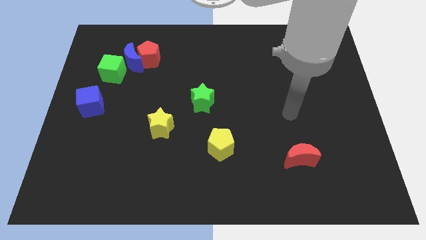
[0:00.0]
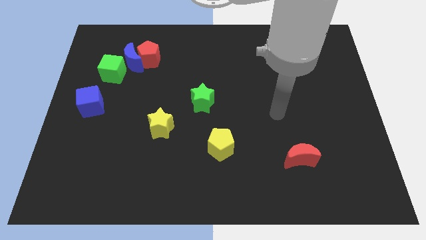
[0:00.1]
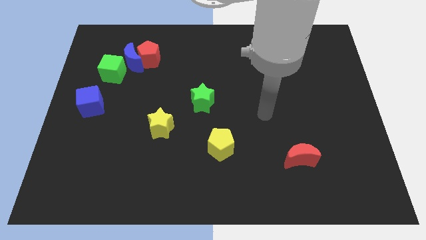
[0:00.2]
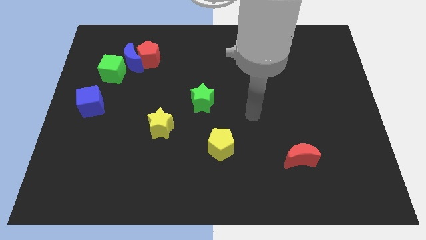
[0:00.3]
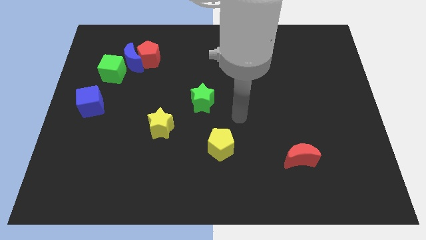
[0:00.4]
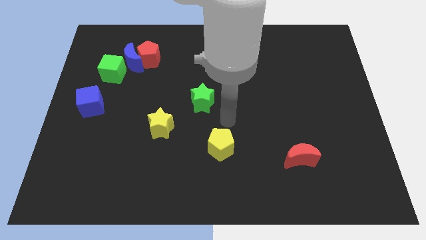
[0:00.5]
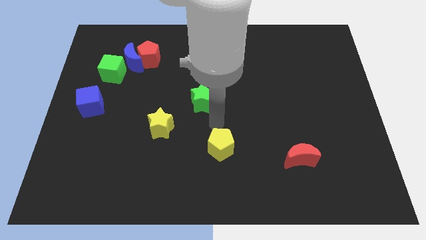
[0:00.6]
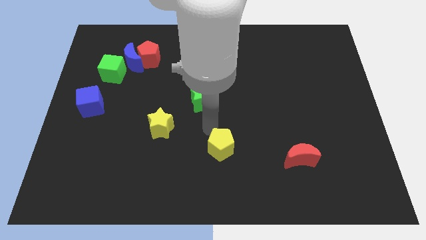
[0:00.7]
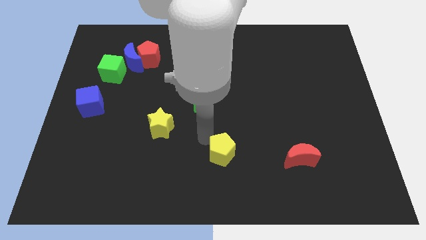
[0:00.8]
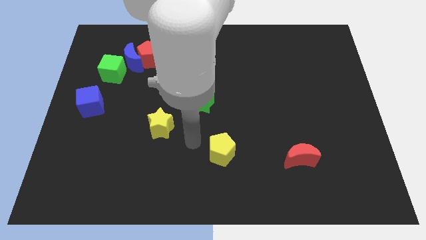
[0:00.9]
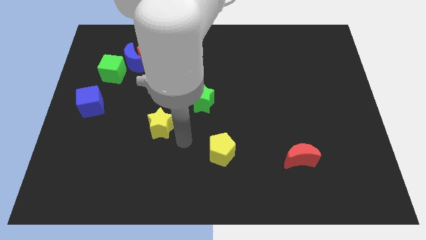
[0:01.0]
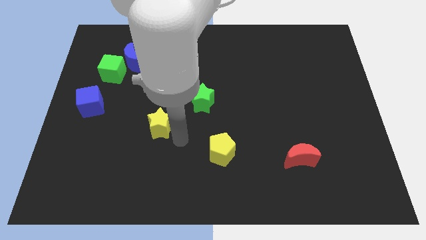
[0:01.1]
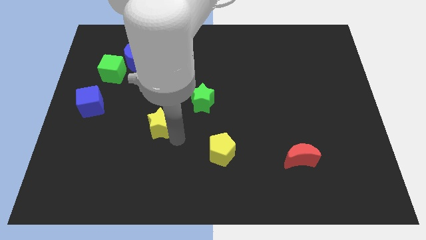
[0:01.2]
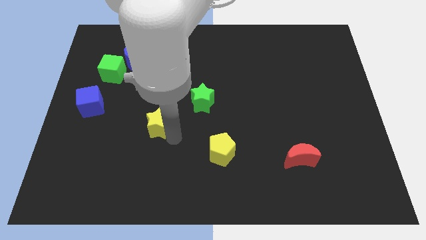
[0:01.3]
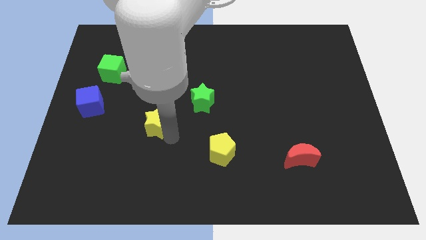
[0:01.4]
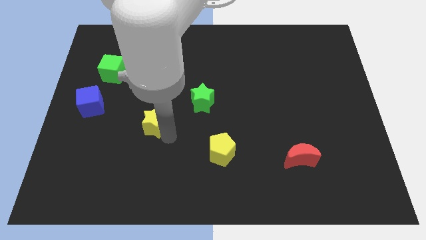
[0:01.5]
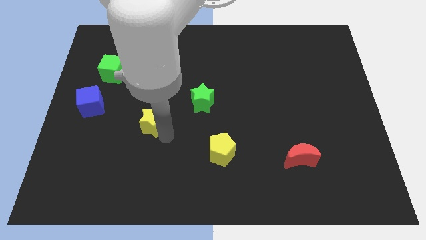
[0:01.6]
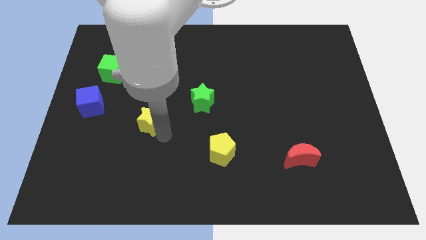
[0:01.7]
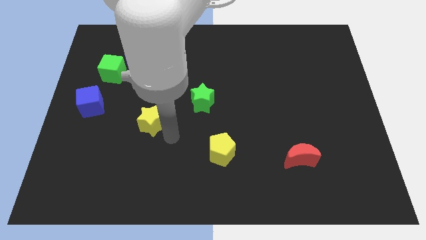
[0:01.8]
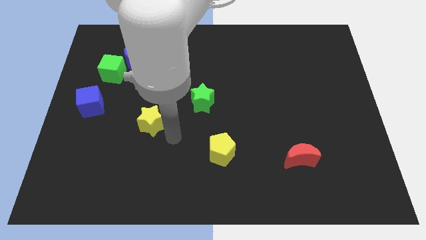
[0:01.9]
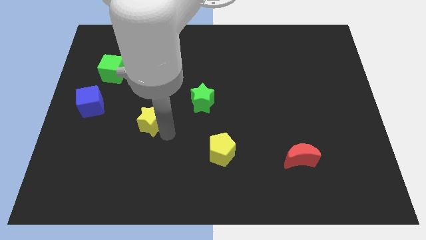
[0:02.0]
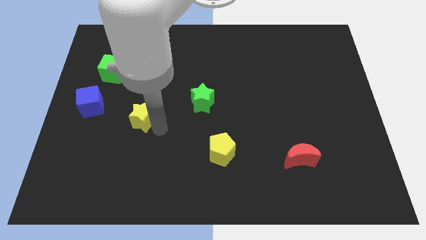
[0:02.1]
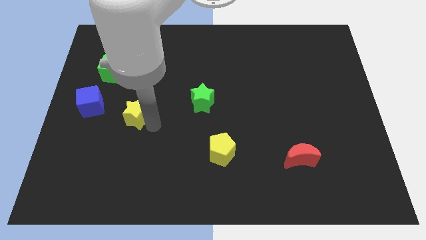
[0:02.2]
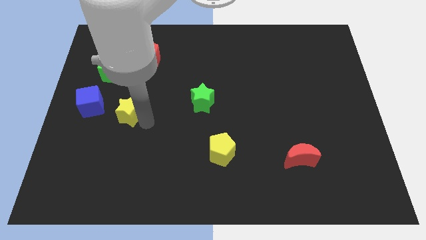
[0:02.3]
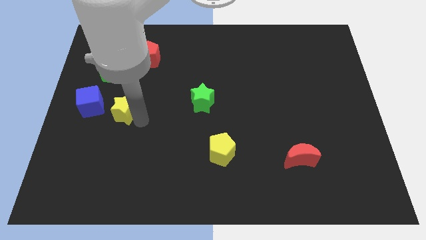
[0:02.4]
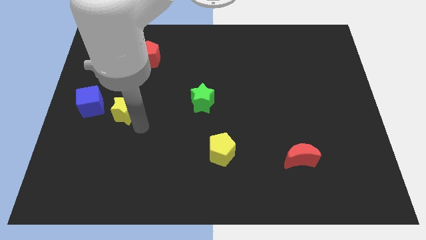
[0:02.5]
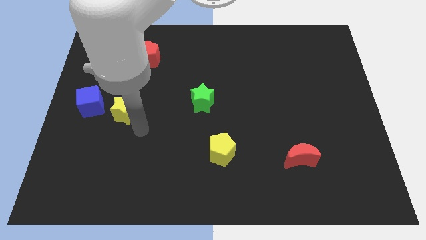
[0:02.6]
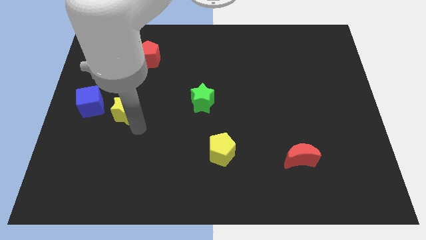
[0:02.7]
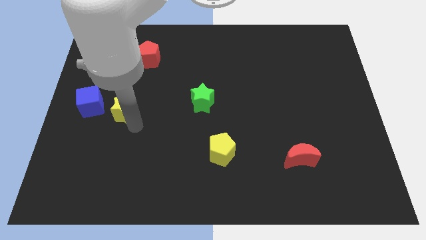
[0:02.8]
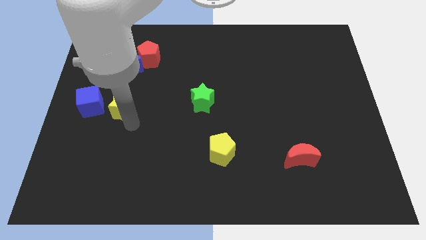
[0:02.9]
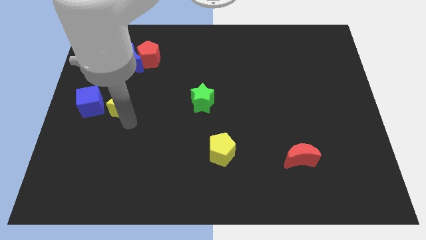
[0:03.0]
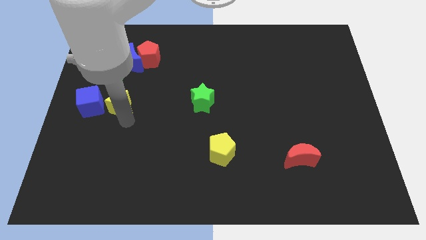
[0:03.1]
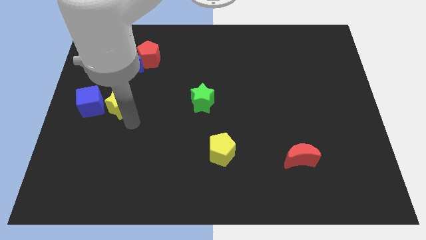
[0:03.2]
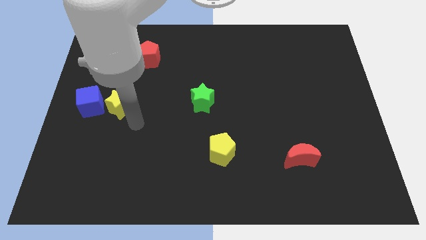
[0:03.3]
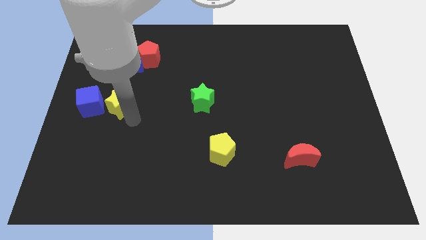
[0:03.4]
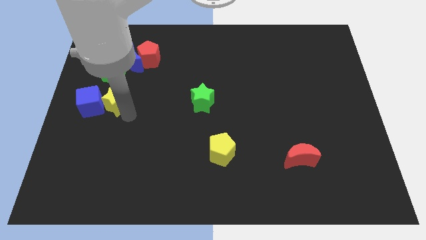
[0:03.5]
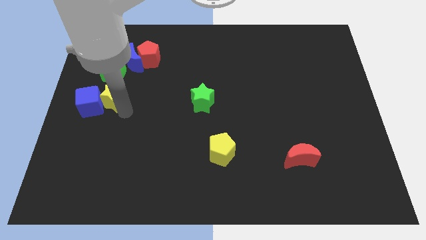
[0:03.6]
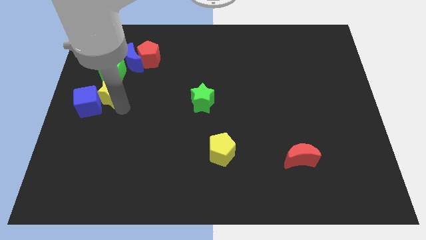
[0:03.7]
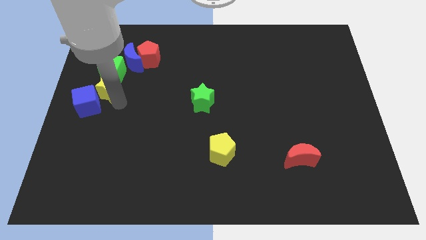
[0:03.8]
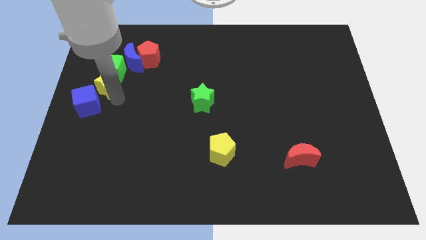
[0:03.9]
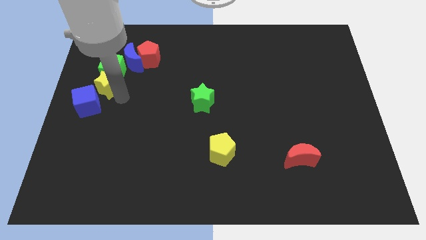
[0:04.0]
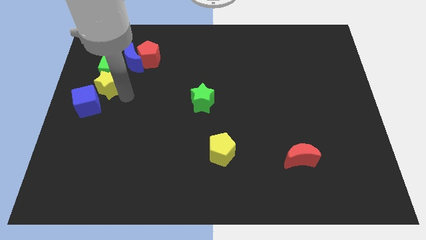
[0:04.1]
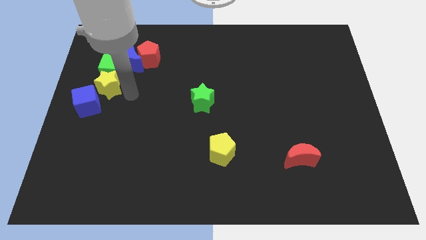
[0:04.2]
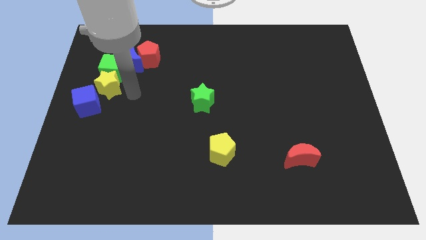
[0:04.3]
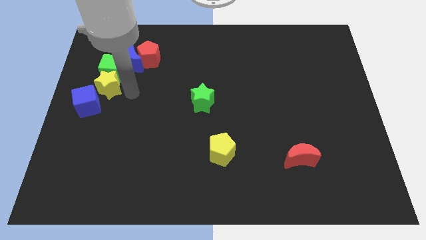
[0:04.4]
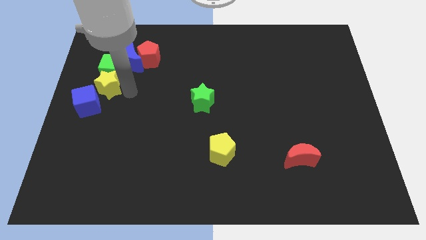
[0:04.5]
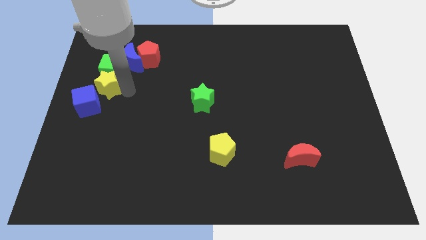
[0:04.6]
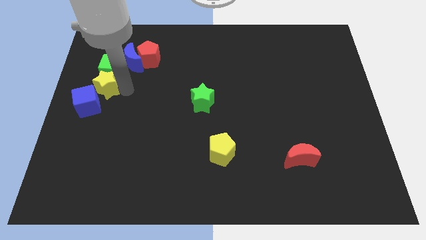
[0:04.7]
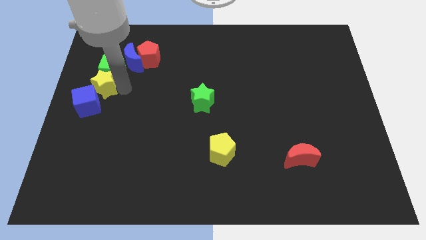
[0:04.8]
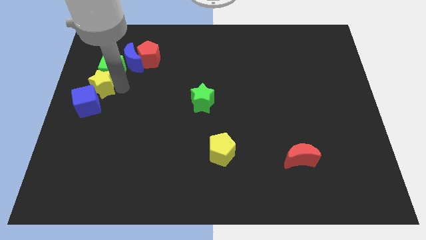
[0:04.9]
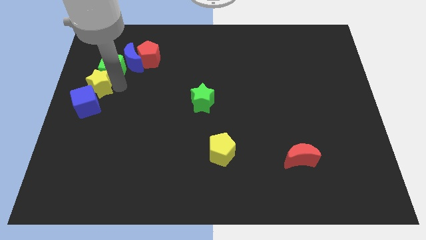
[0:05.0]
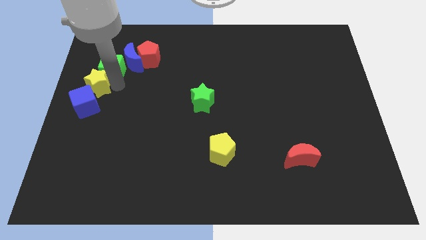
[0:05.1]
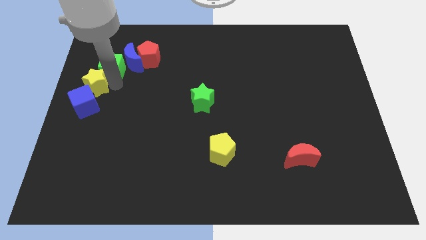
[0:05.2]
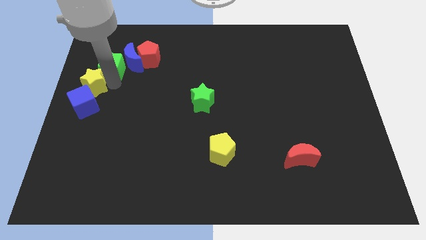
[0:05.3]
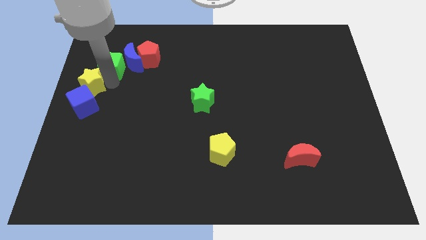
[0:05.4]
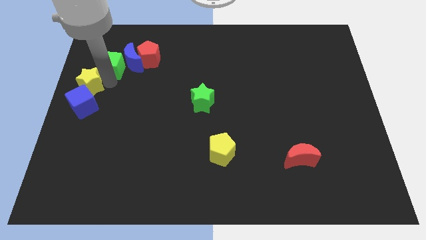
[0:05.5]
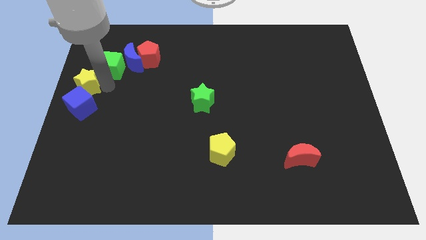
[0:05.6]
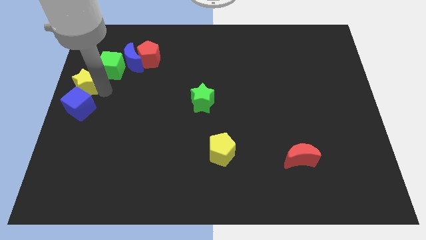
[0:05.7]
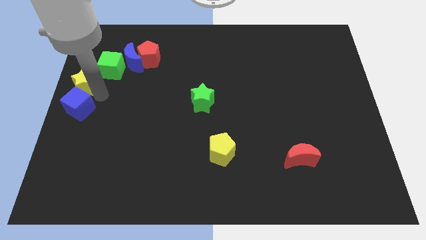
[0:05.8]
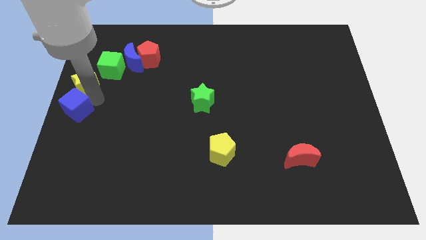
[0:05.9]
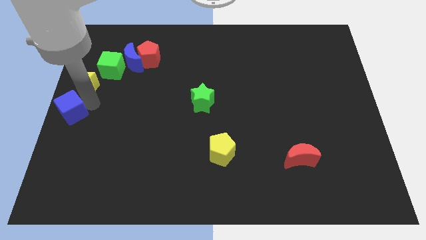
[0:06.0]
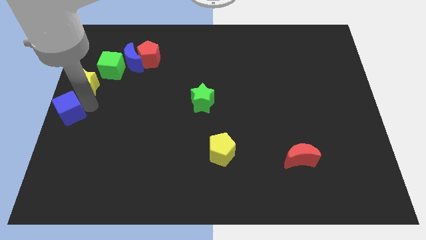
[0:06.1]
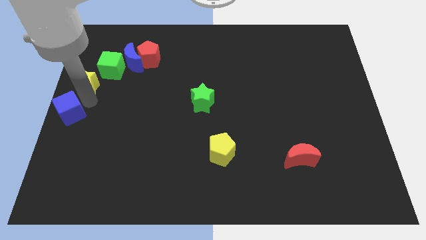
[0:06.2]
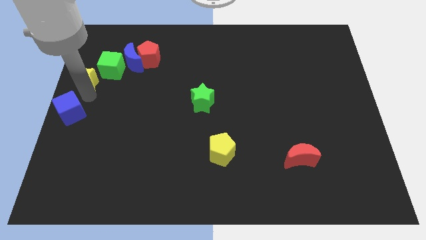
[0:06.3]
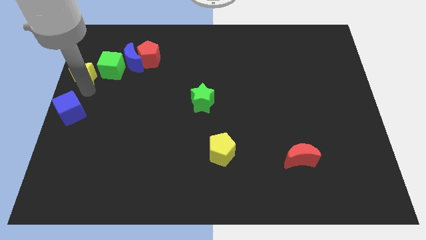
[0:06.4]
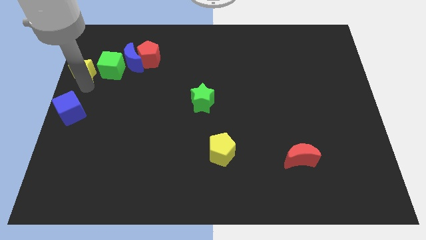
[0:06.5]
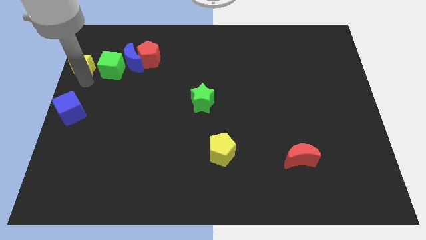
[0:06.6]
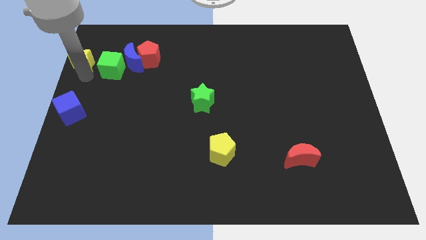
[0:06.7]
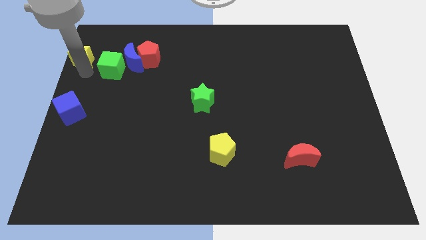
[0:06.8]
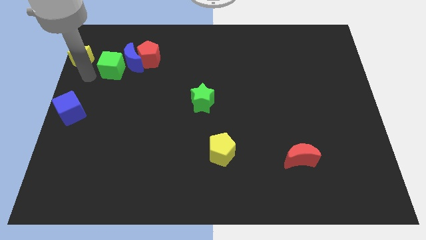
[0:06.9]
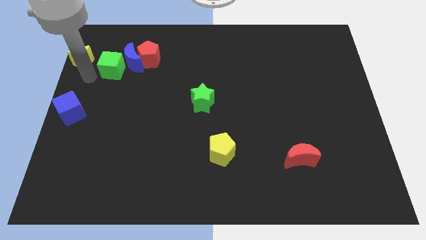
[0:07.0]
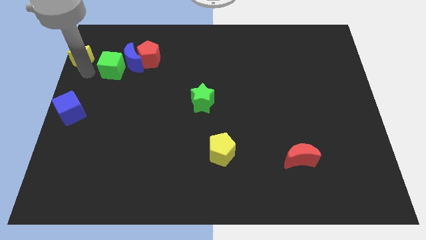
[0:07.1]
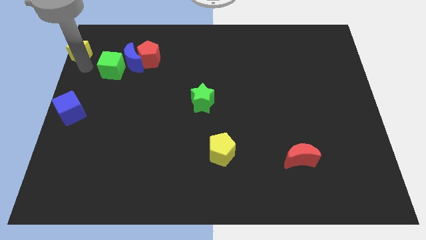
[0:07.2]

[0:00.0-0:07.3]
push the yellow star to the upper left corner
